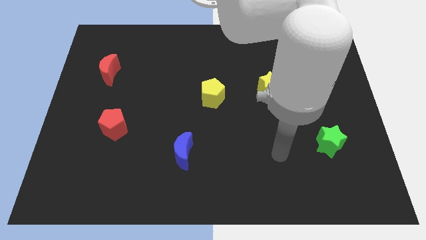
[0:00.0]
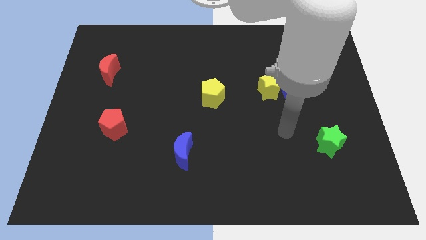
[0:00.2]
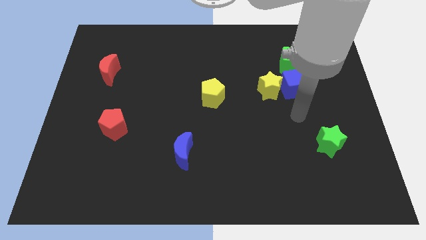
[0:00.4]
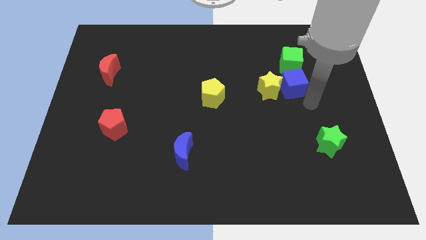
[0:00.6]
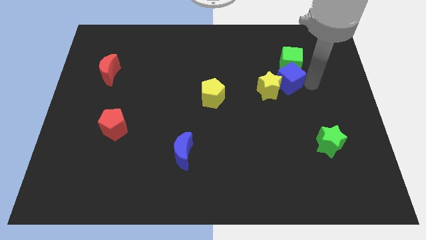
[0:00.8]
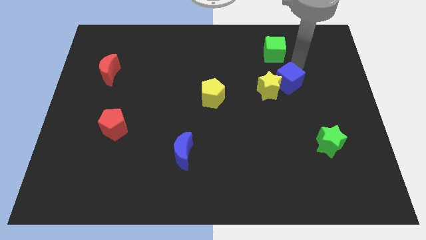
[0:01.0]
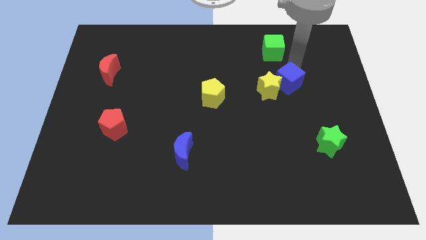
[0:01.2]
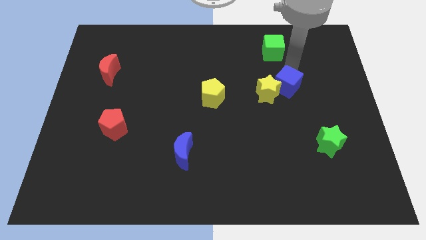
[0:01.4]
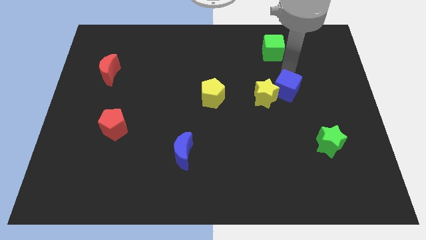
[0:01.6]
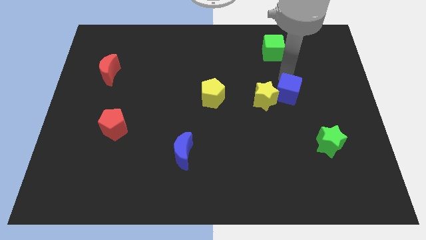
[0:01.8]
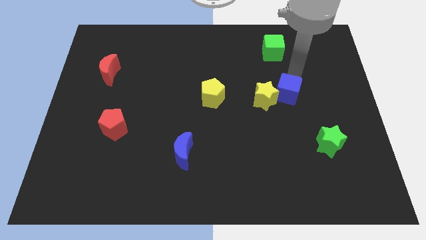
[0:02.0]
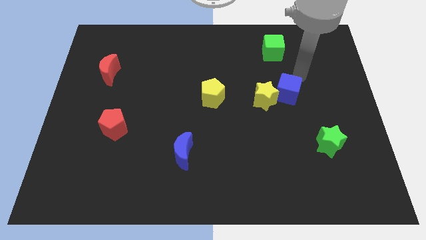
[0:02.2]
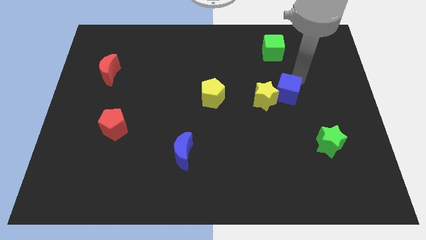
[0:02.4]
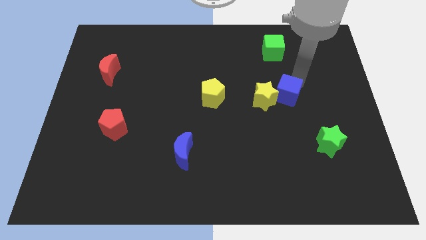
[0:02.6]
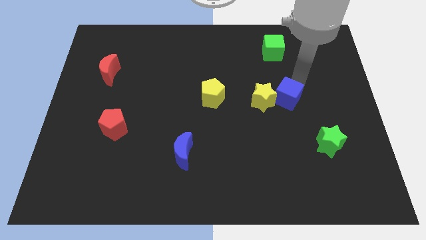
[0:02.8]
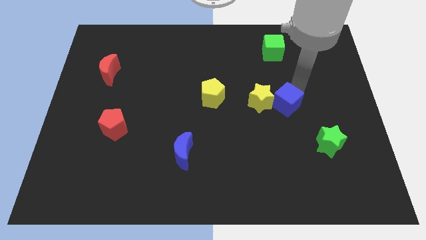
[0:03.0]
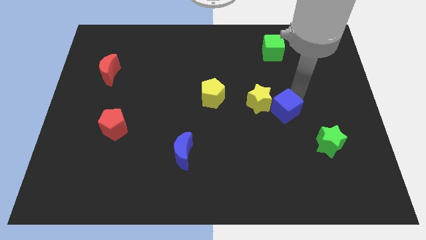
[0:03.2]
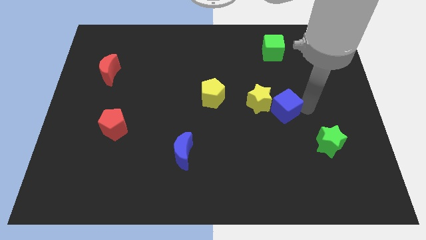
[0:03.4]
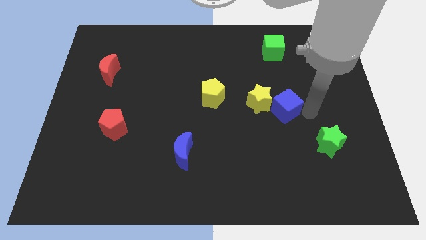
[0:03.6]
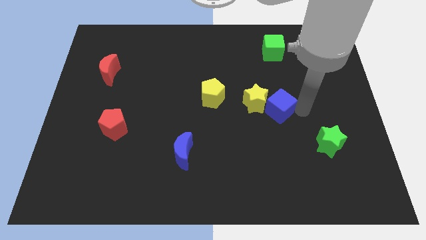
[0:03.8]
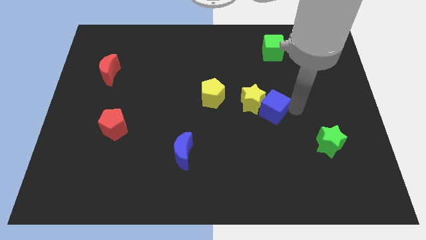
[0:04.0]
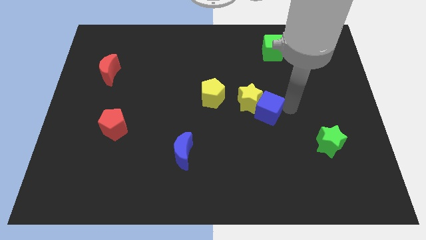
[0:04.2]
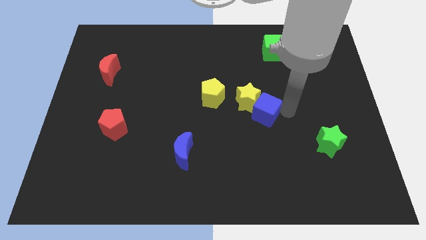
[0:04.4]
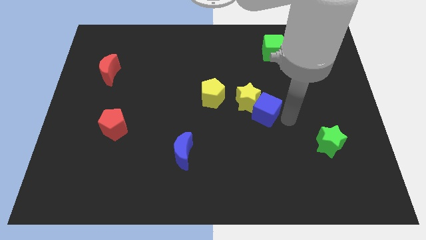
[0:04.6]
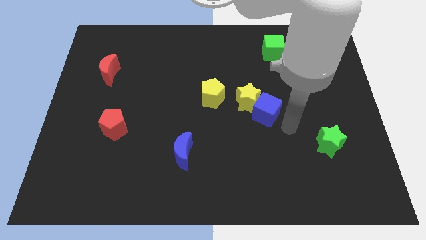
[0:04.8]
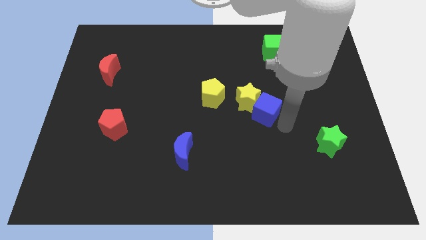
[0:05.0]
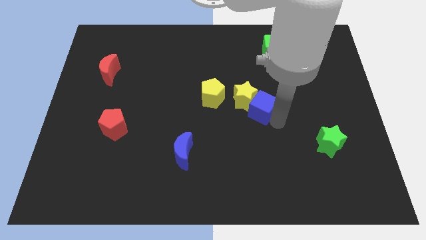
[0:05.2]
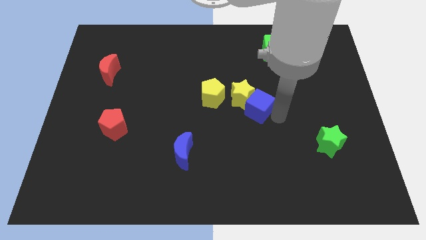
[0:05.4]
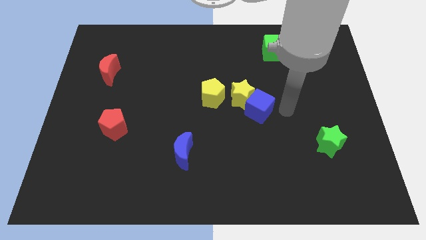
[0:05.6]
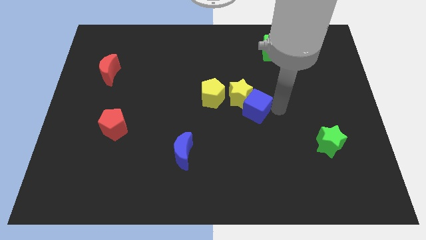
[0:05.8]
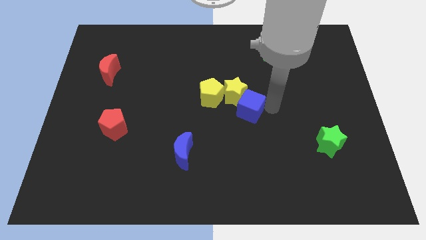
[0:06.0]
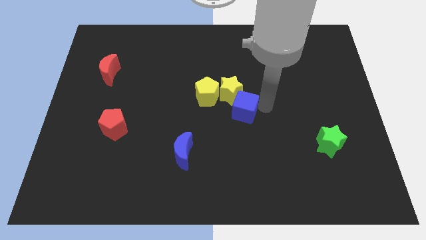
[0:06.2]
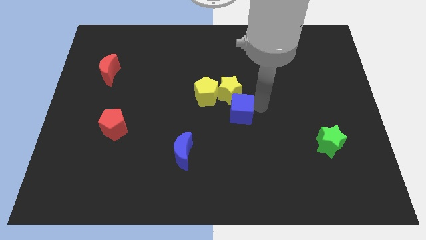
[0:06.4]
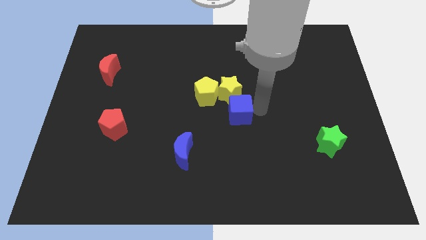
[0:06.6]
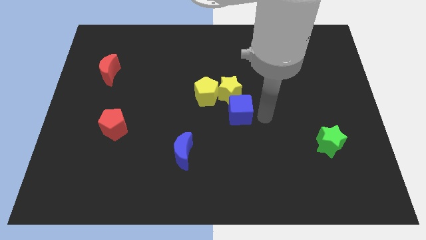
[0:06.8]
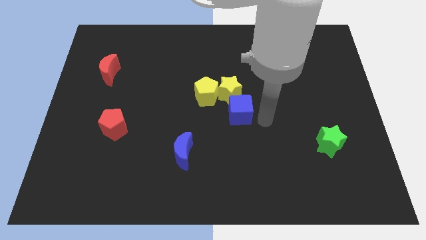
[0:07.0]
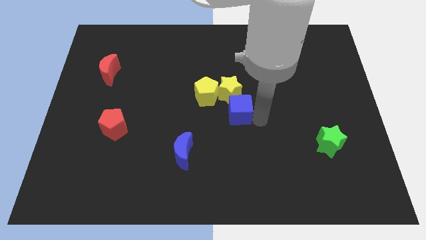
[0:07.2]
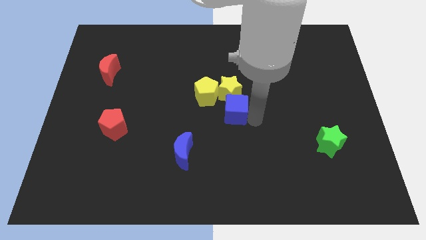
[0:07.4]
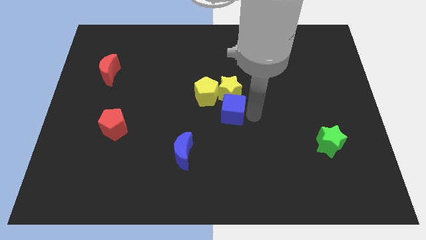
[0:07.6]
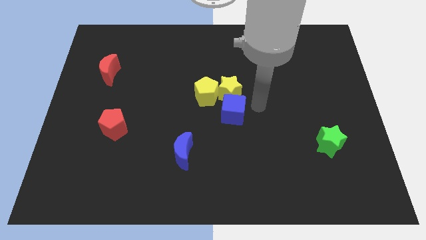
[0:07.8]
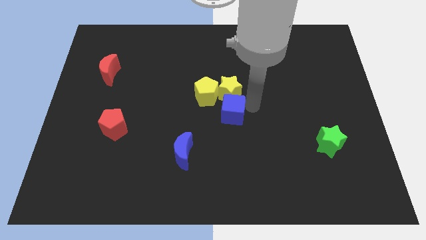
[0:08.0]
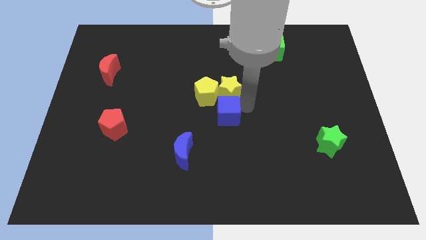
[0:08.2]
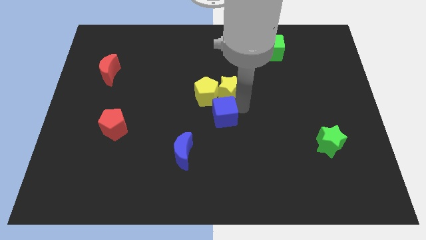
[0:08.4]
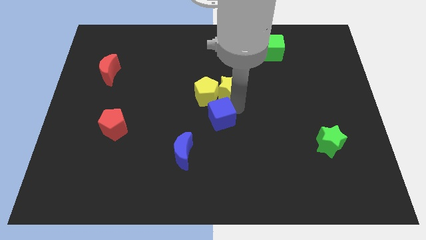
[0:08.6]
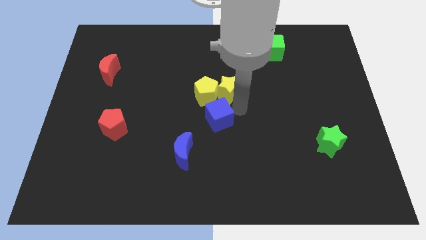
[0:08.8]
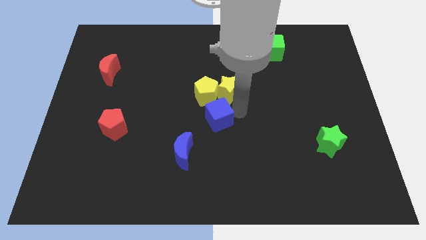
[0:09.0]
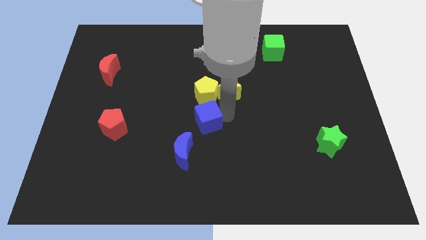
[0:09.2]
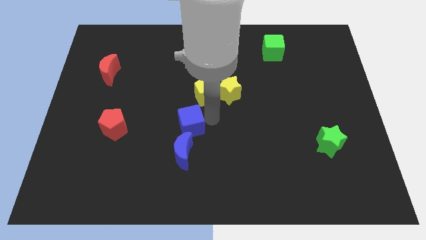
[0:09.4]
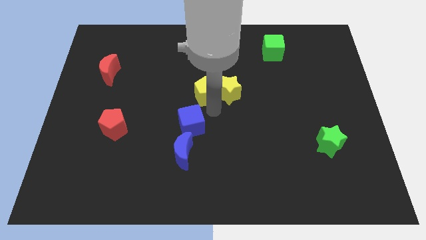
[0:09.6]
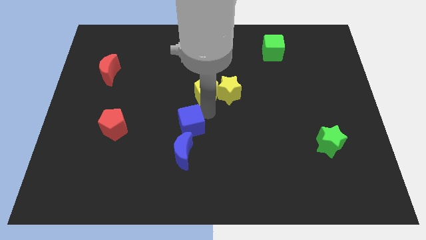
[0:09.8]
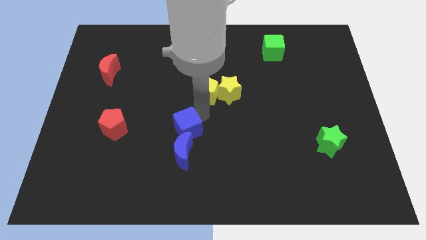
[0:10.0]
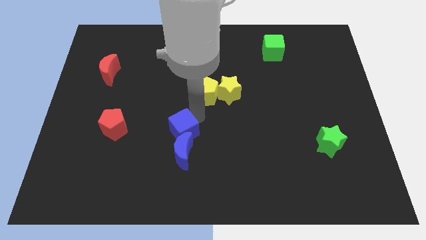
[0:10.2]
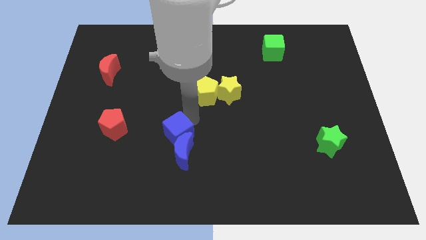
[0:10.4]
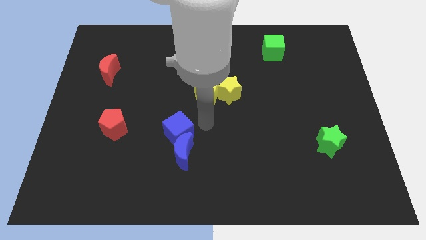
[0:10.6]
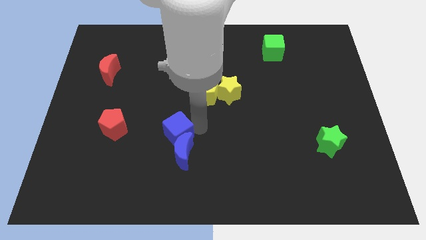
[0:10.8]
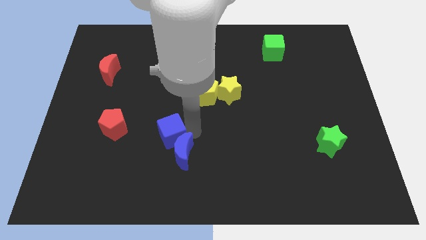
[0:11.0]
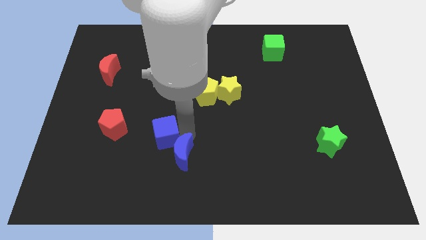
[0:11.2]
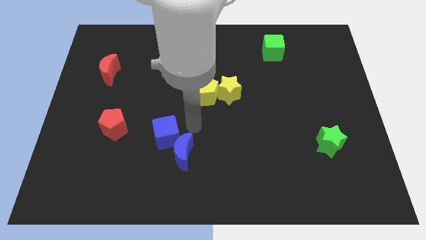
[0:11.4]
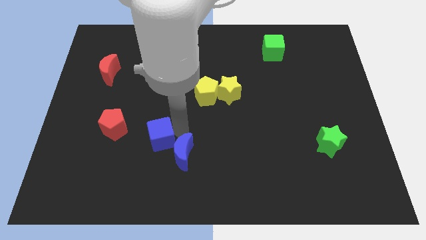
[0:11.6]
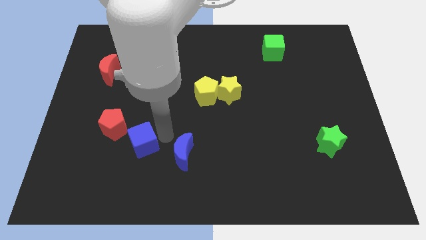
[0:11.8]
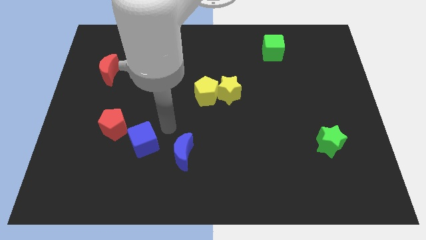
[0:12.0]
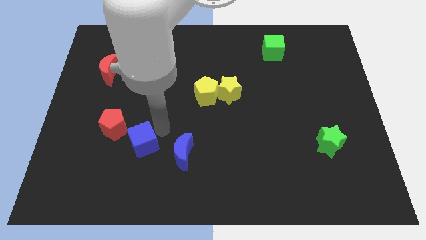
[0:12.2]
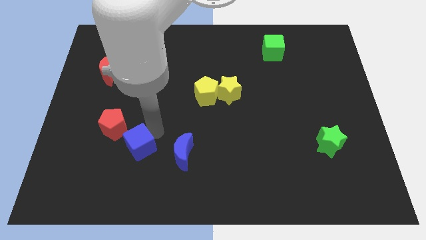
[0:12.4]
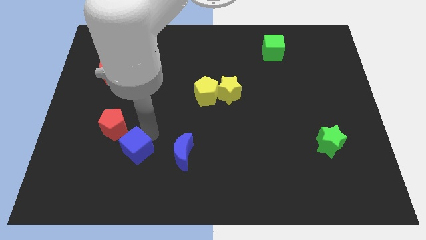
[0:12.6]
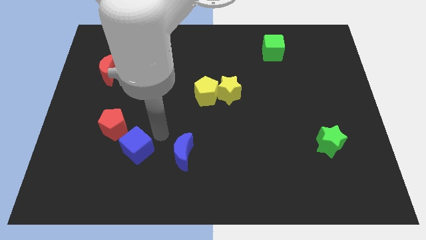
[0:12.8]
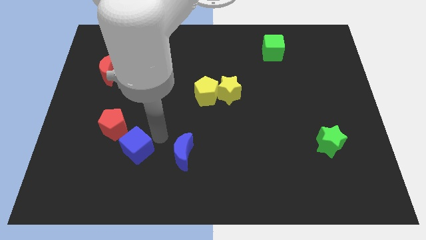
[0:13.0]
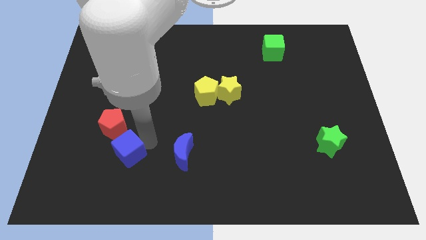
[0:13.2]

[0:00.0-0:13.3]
move the blue cube to the bottom side of the red pentagon
